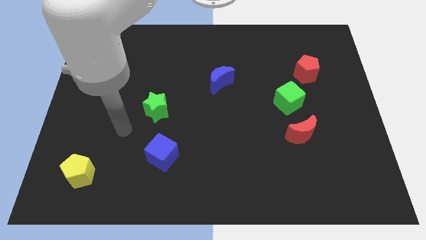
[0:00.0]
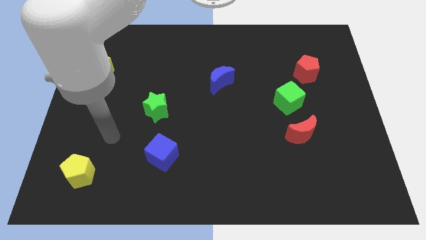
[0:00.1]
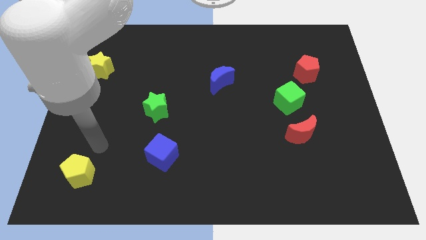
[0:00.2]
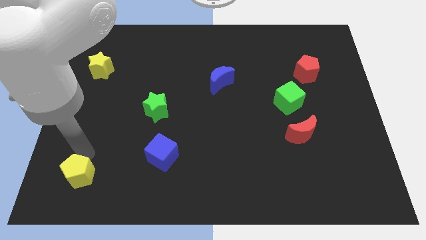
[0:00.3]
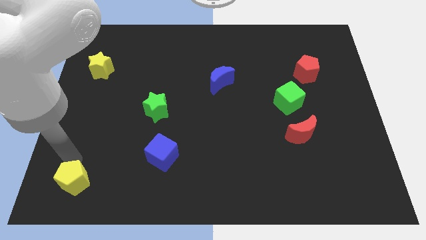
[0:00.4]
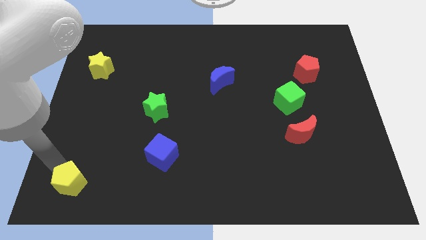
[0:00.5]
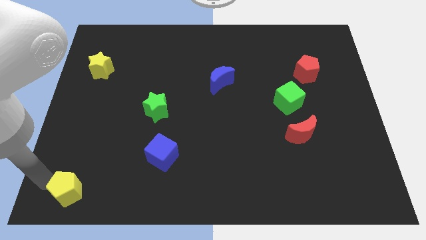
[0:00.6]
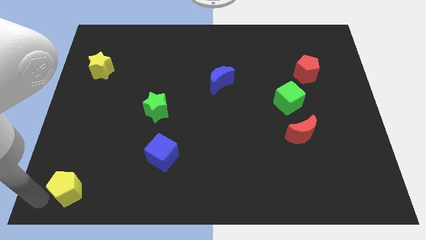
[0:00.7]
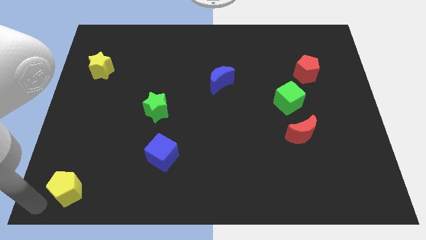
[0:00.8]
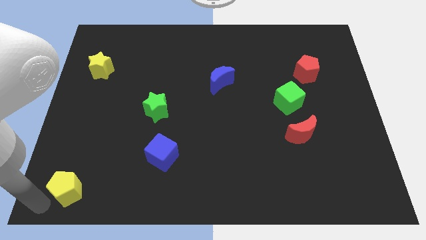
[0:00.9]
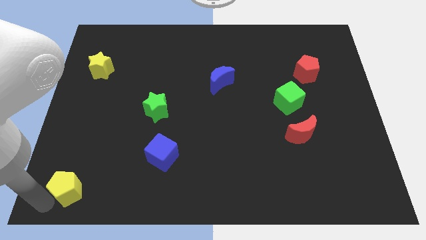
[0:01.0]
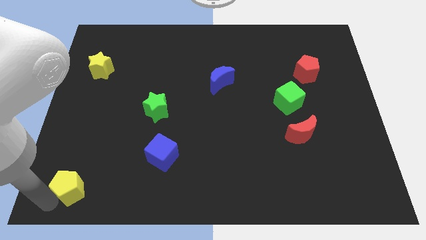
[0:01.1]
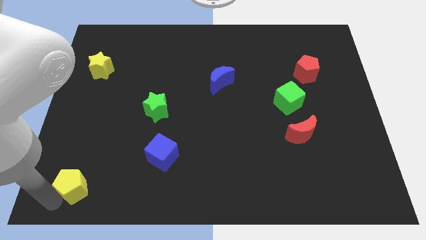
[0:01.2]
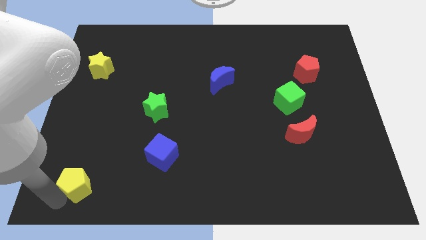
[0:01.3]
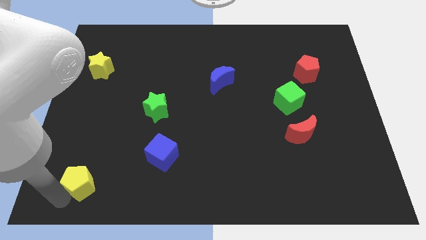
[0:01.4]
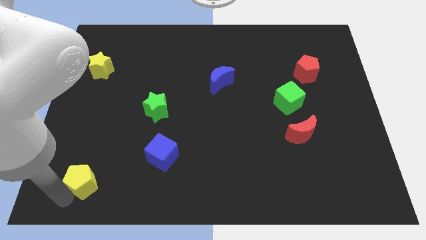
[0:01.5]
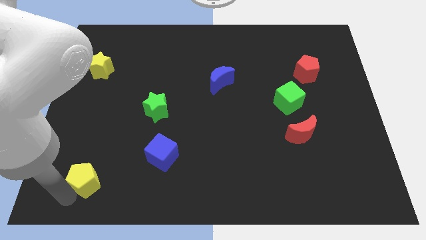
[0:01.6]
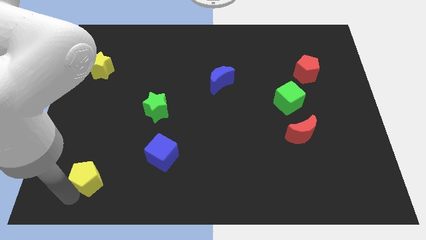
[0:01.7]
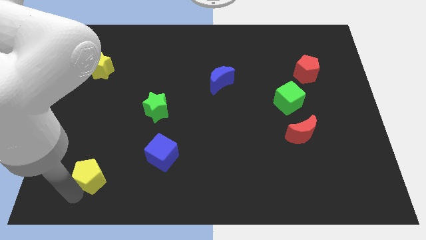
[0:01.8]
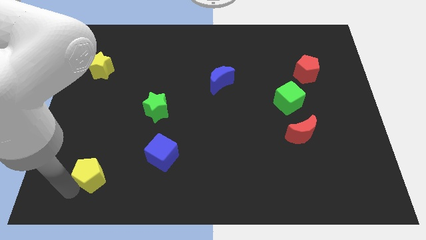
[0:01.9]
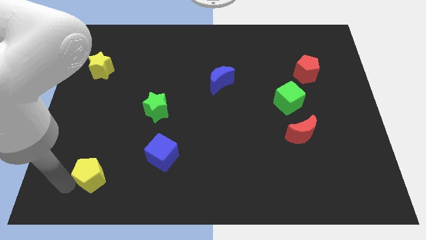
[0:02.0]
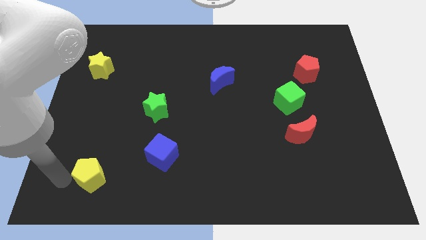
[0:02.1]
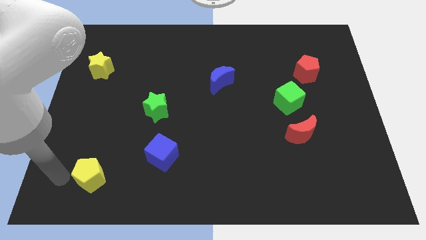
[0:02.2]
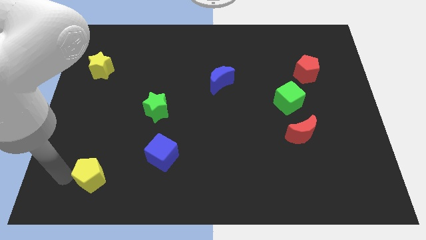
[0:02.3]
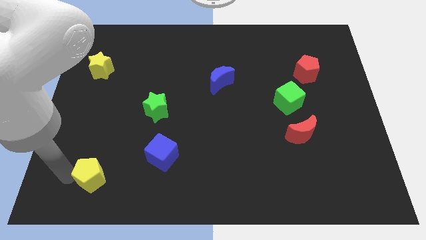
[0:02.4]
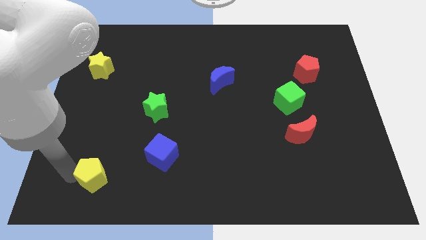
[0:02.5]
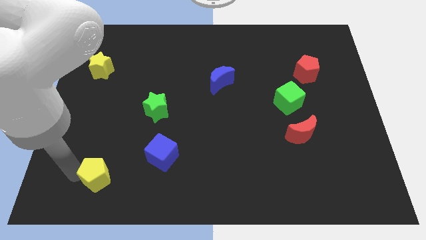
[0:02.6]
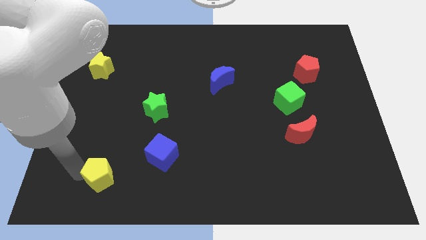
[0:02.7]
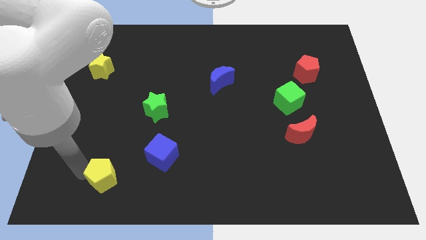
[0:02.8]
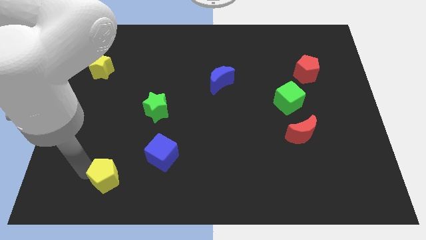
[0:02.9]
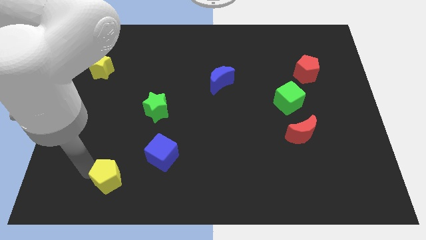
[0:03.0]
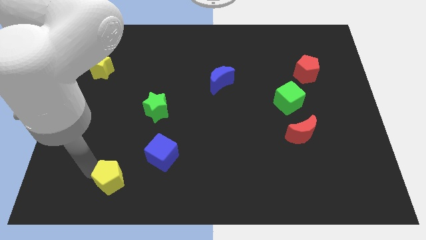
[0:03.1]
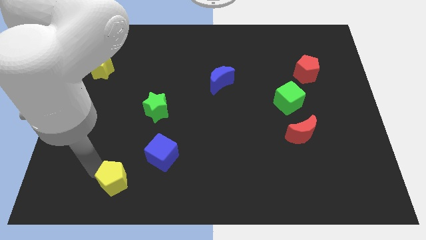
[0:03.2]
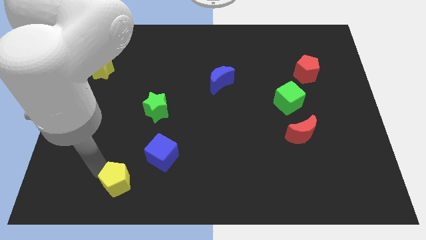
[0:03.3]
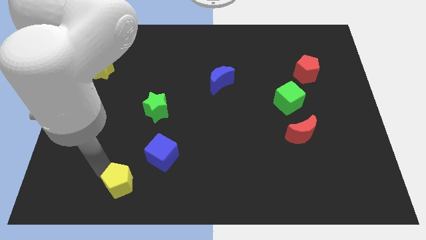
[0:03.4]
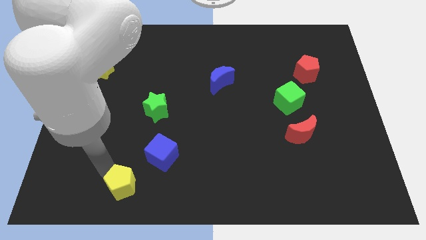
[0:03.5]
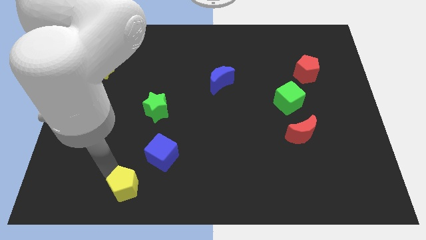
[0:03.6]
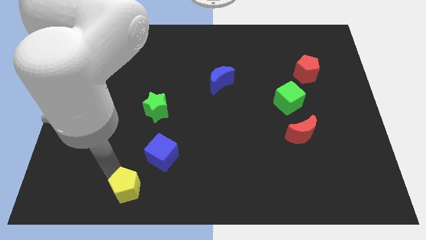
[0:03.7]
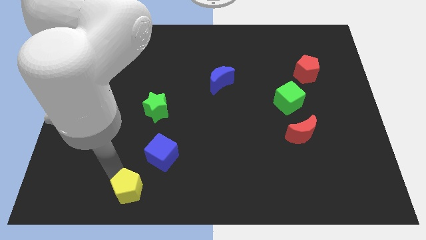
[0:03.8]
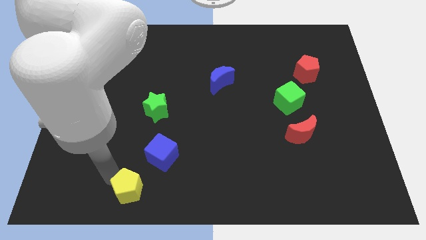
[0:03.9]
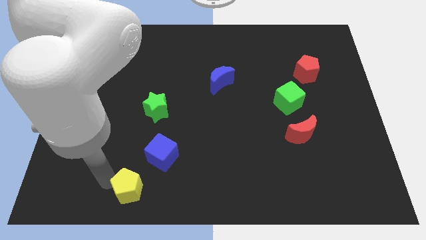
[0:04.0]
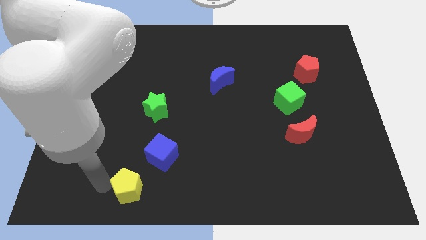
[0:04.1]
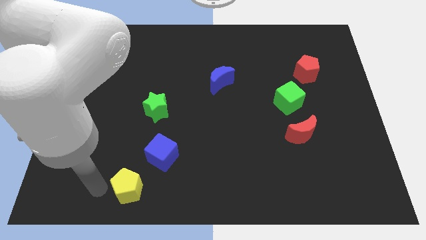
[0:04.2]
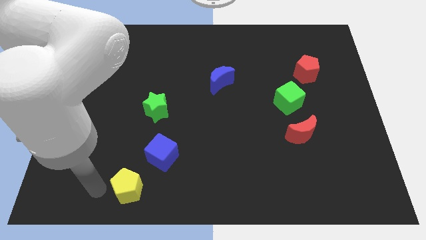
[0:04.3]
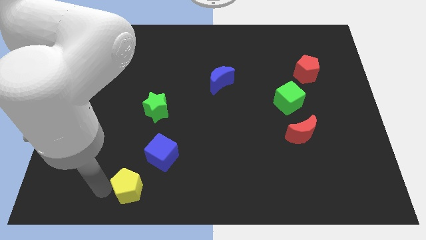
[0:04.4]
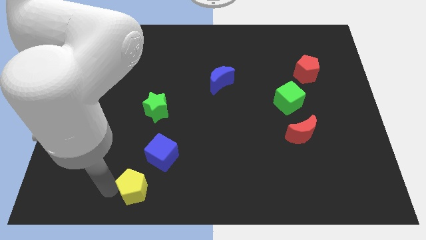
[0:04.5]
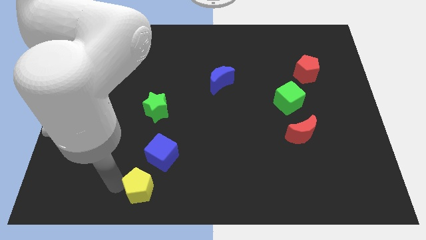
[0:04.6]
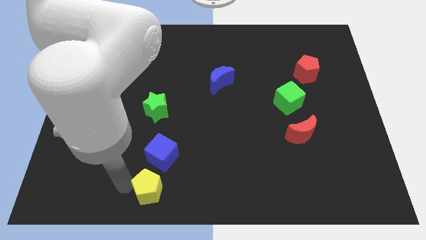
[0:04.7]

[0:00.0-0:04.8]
put the yellow pentagon to the bottom side

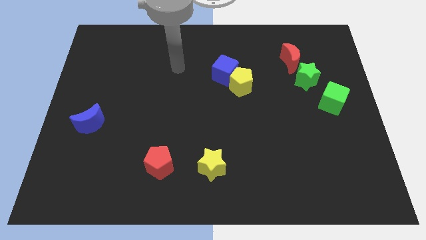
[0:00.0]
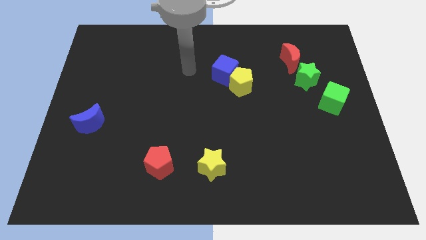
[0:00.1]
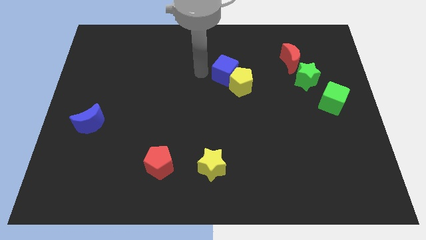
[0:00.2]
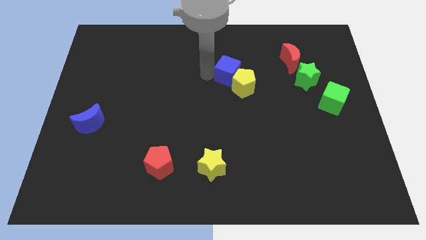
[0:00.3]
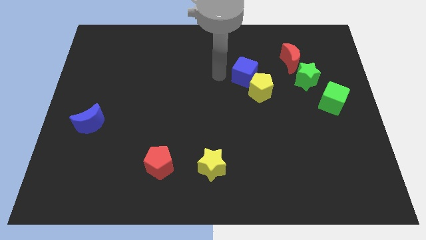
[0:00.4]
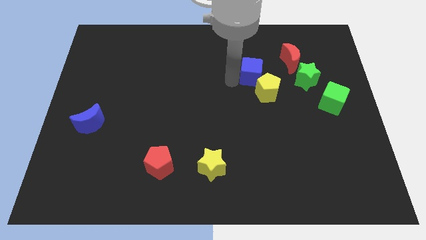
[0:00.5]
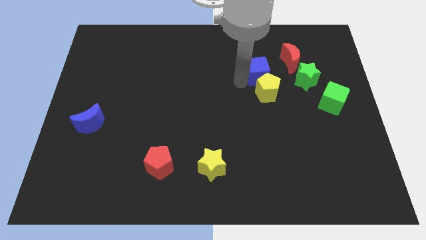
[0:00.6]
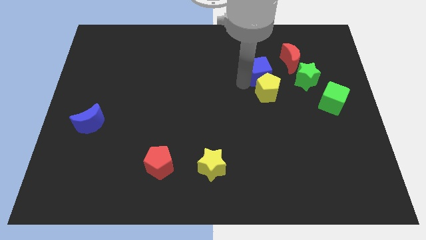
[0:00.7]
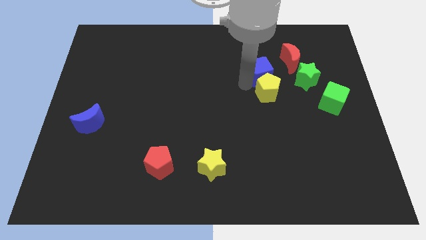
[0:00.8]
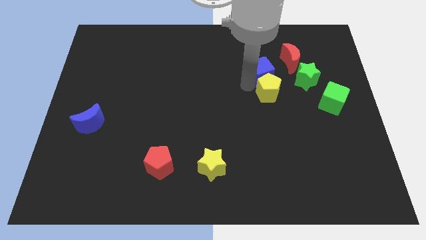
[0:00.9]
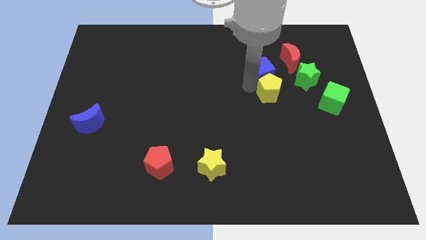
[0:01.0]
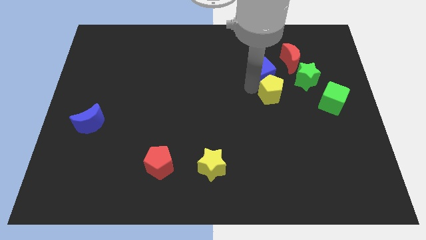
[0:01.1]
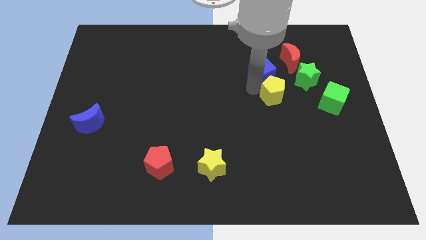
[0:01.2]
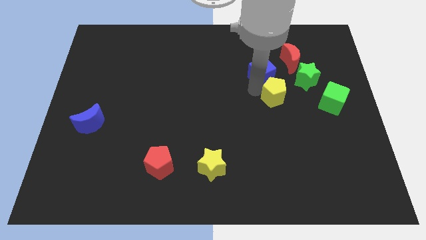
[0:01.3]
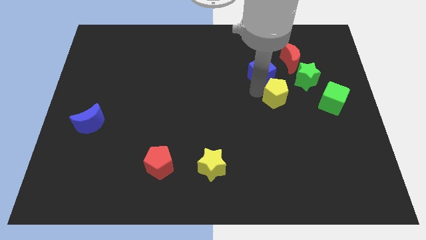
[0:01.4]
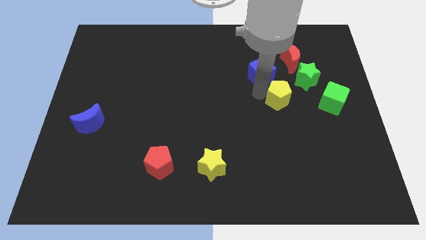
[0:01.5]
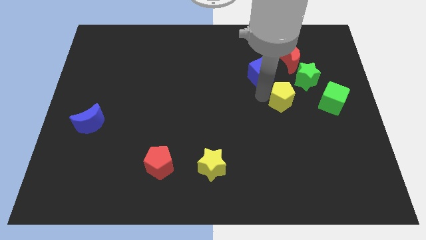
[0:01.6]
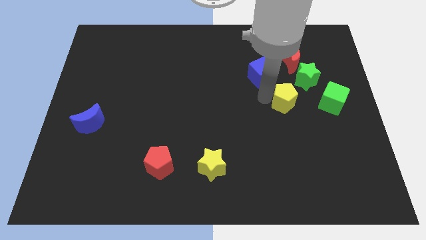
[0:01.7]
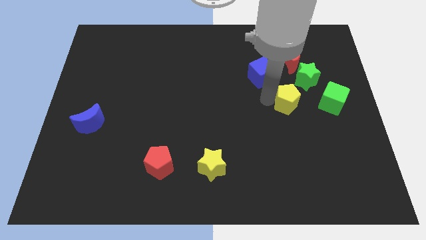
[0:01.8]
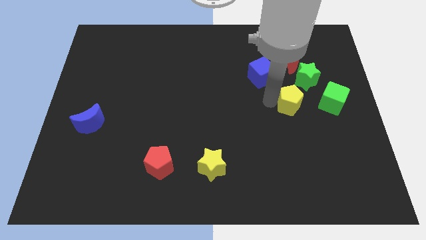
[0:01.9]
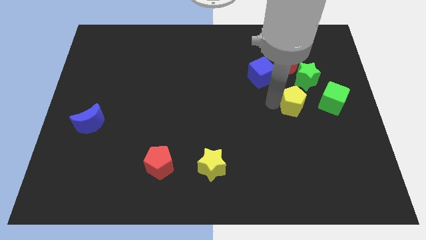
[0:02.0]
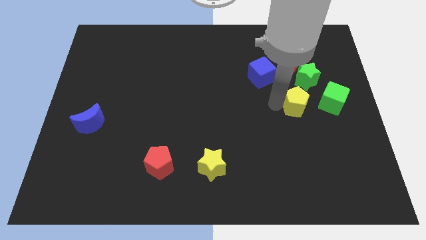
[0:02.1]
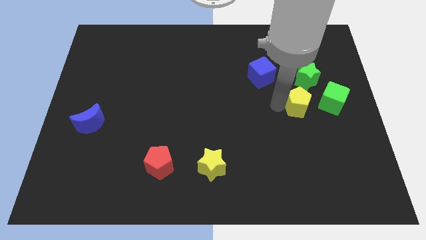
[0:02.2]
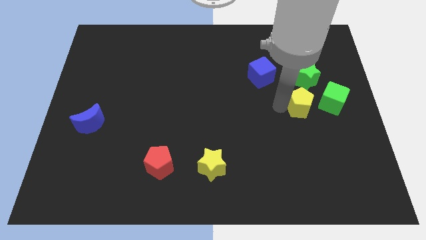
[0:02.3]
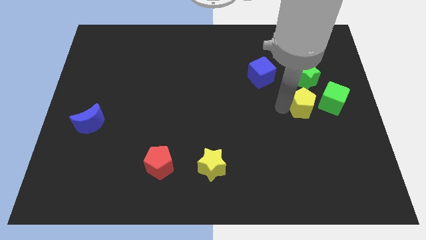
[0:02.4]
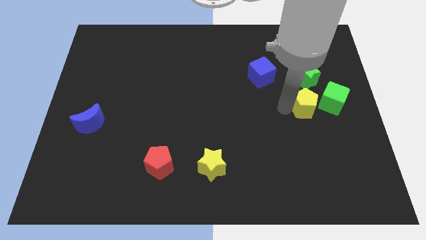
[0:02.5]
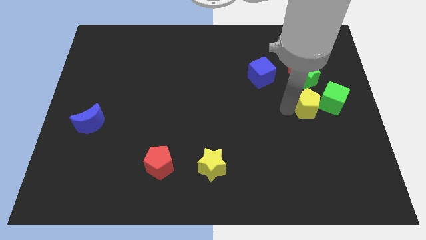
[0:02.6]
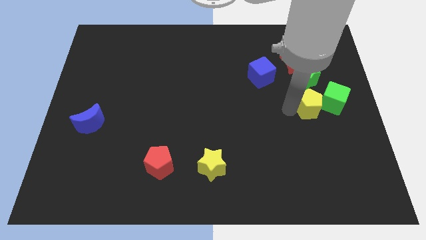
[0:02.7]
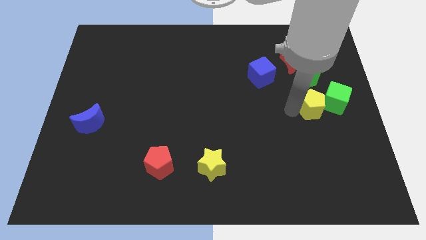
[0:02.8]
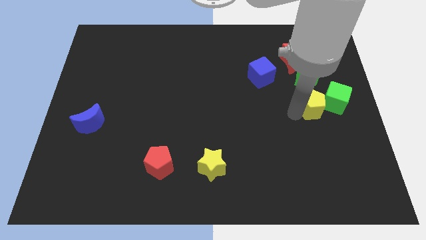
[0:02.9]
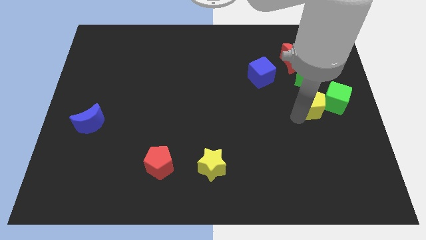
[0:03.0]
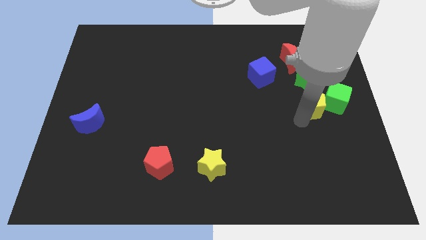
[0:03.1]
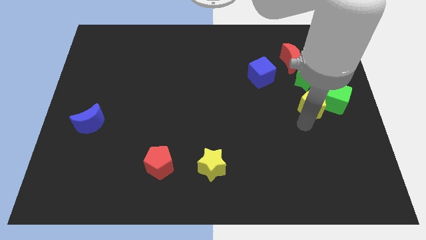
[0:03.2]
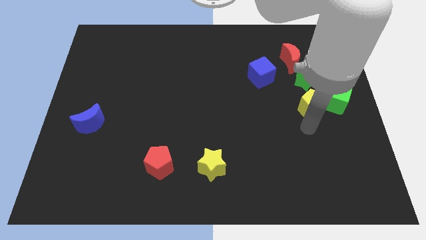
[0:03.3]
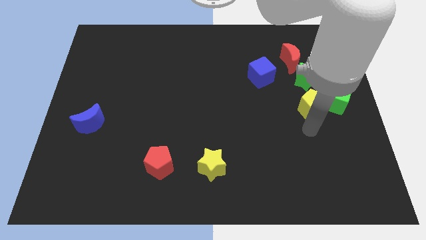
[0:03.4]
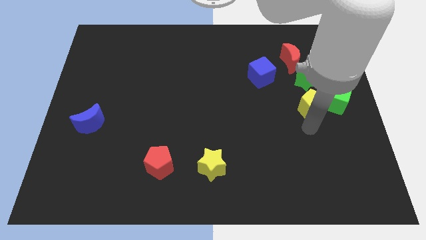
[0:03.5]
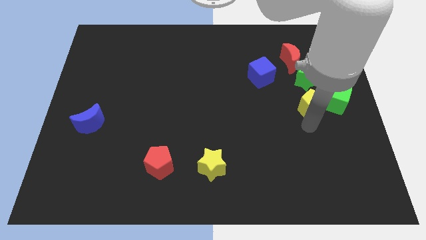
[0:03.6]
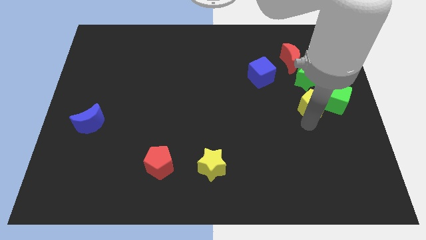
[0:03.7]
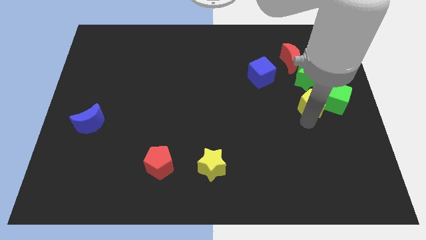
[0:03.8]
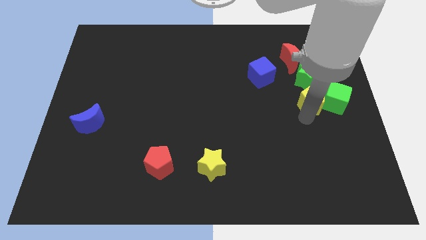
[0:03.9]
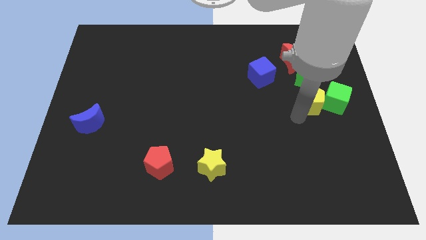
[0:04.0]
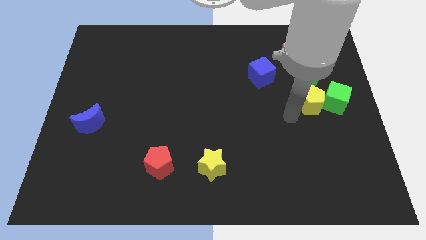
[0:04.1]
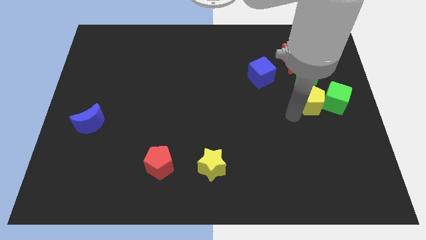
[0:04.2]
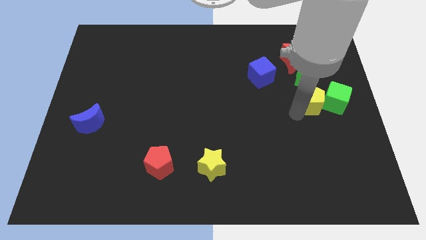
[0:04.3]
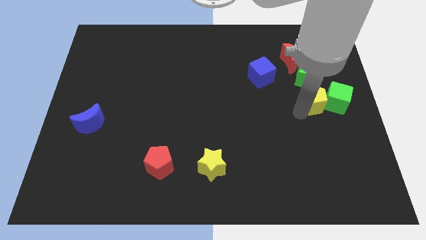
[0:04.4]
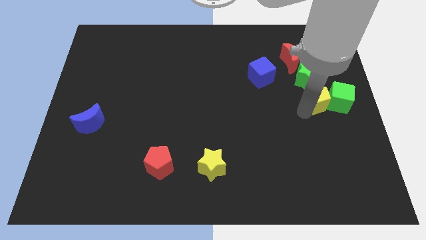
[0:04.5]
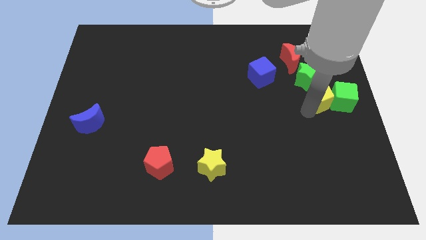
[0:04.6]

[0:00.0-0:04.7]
slide the yellow pentagon to the right side
